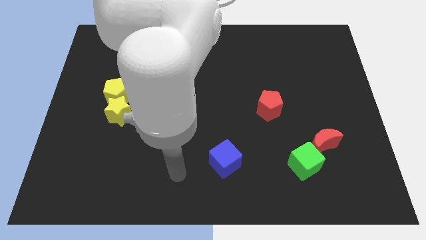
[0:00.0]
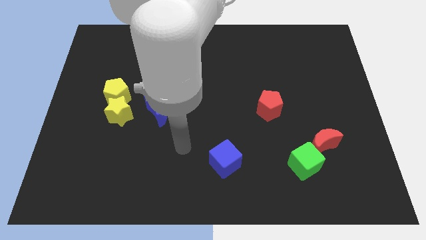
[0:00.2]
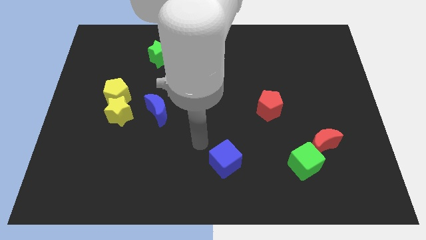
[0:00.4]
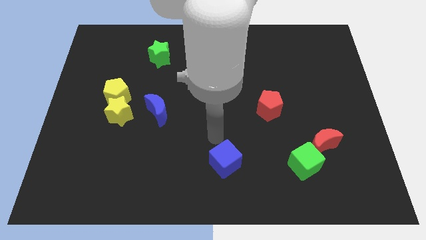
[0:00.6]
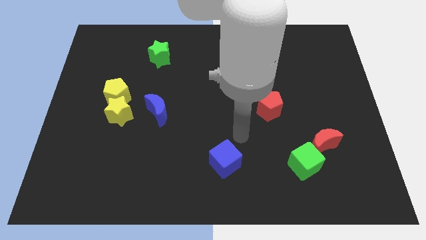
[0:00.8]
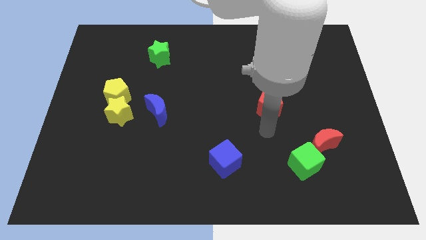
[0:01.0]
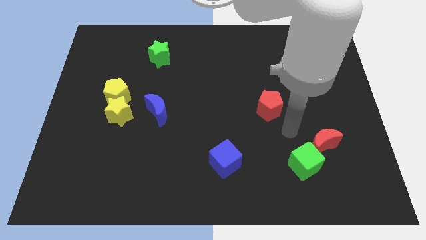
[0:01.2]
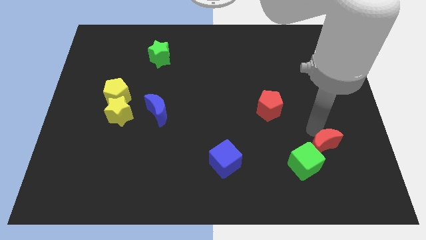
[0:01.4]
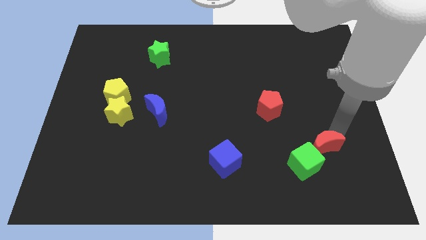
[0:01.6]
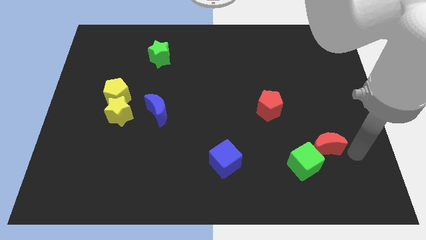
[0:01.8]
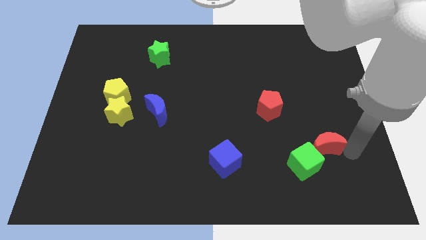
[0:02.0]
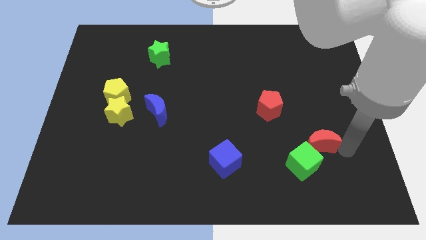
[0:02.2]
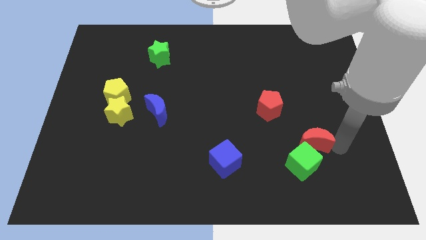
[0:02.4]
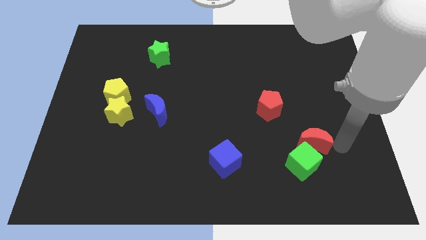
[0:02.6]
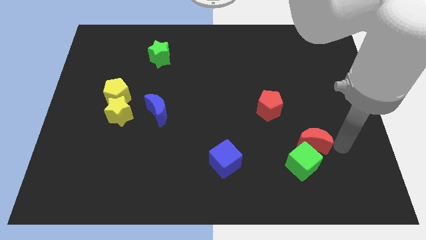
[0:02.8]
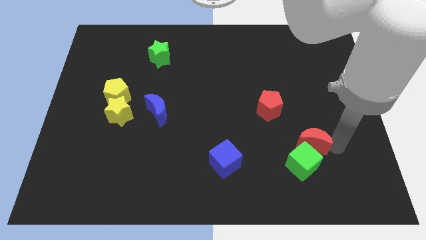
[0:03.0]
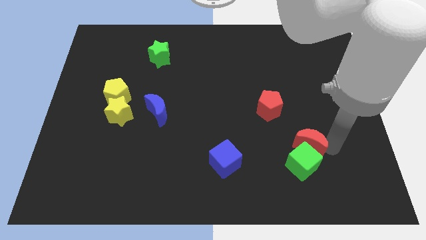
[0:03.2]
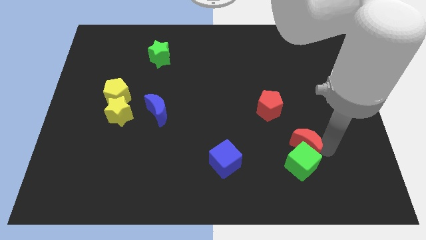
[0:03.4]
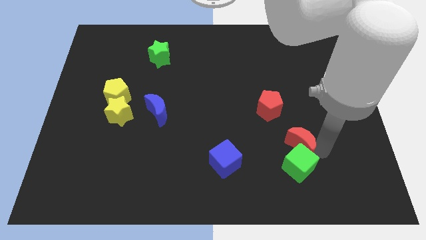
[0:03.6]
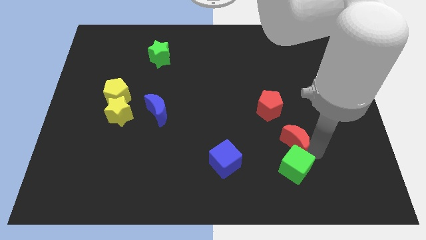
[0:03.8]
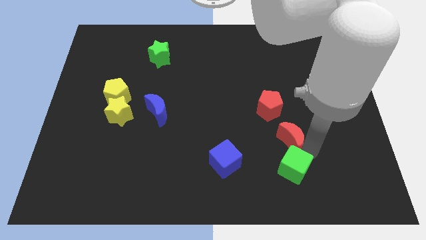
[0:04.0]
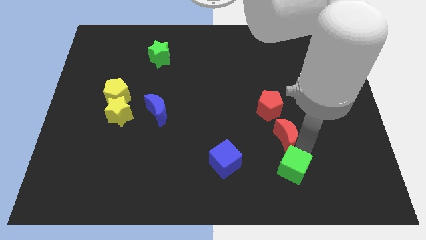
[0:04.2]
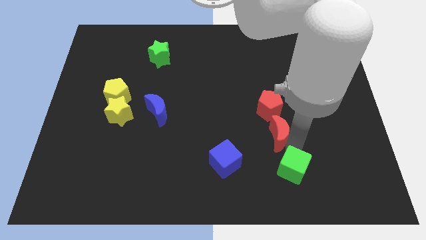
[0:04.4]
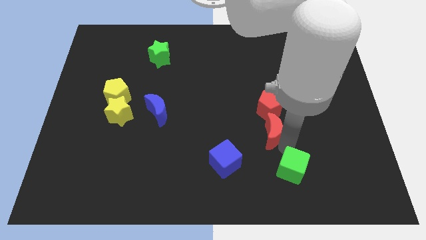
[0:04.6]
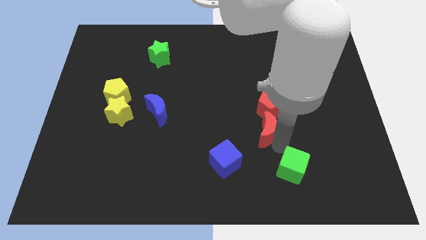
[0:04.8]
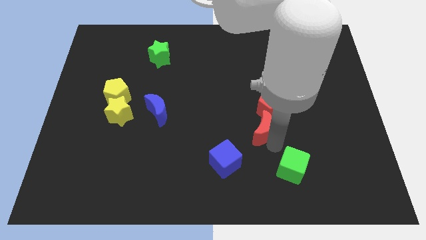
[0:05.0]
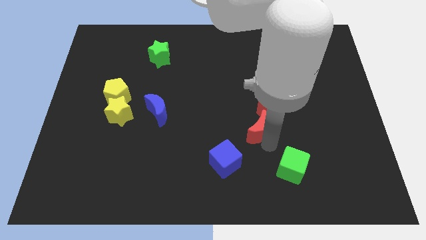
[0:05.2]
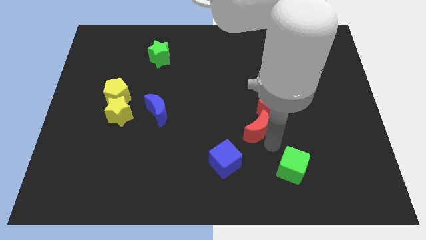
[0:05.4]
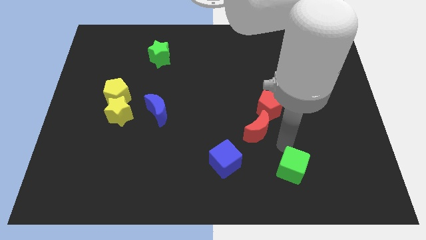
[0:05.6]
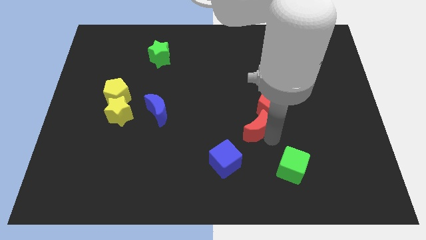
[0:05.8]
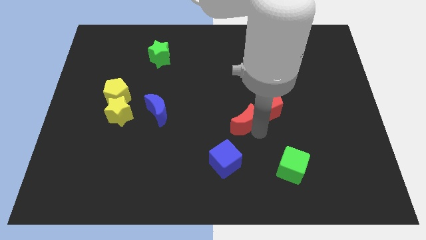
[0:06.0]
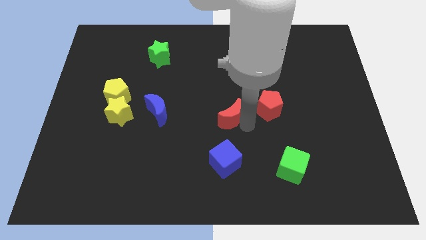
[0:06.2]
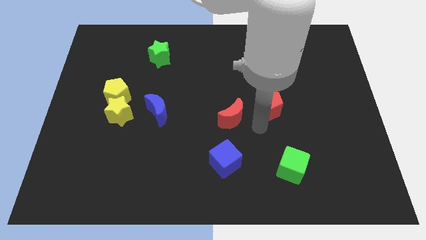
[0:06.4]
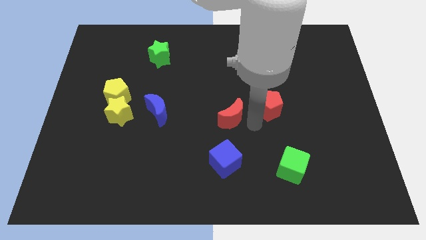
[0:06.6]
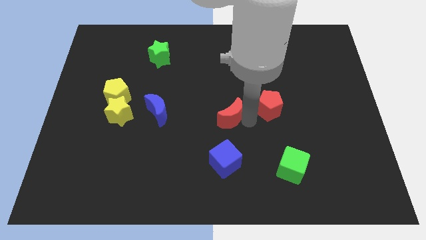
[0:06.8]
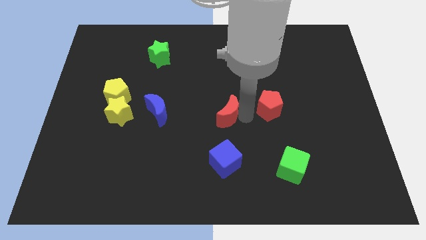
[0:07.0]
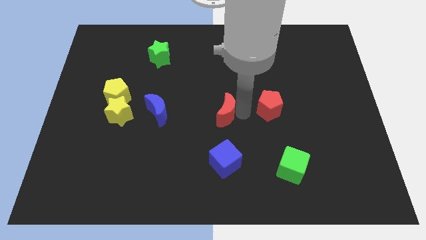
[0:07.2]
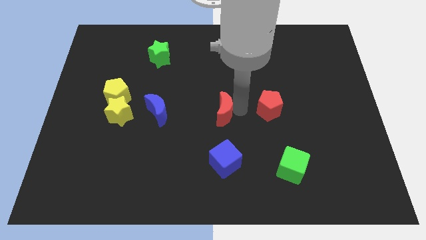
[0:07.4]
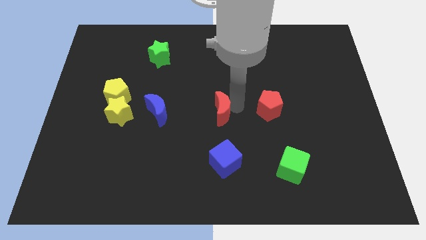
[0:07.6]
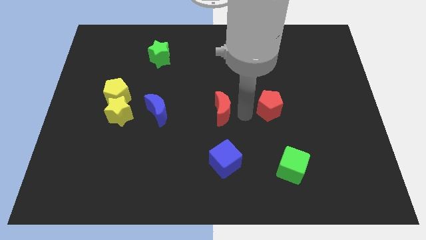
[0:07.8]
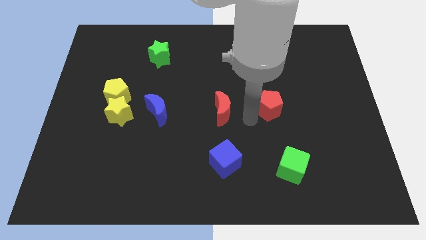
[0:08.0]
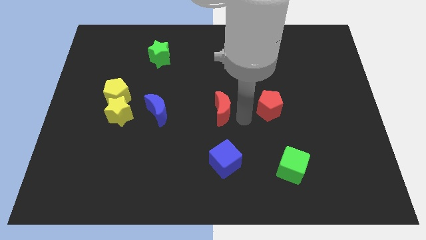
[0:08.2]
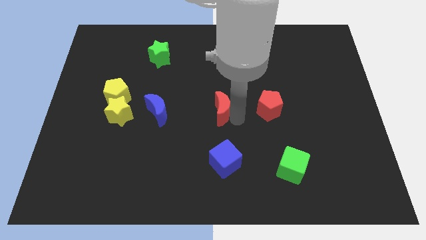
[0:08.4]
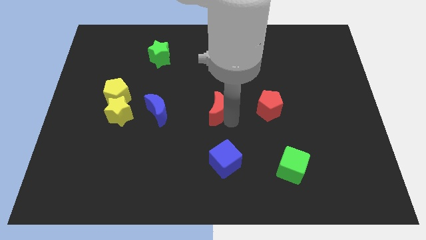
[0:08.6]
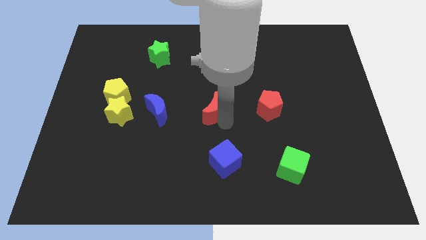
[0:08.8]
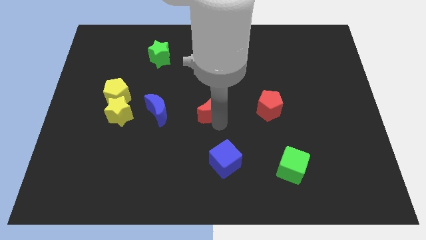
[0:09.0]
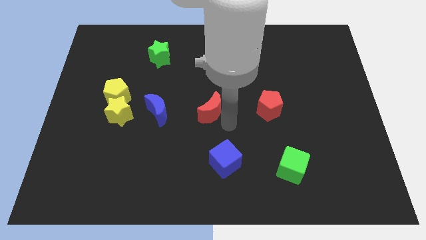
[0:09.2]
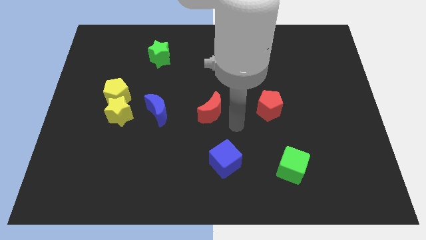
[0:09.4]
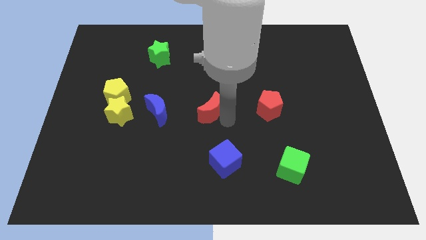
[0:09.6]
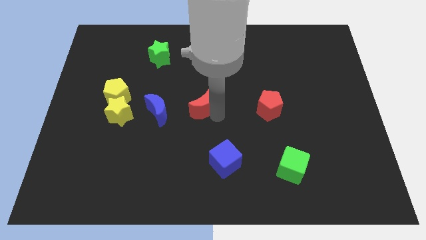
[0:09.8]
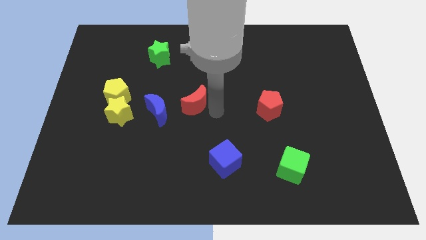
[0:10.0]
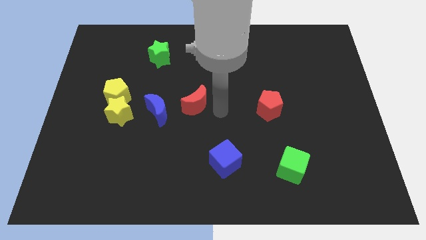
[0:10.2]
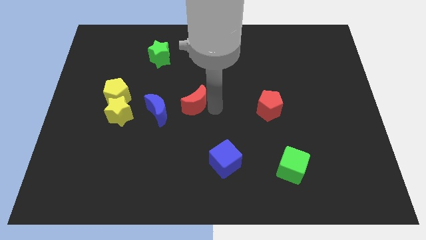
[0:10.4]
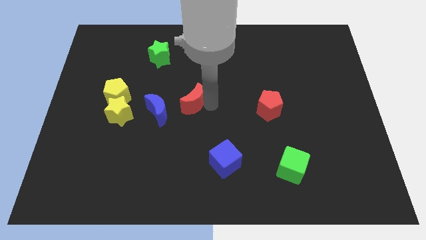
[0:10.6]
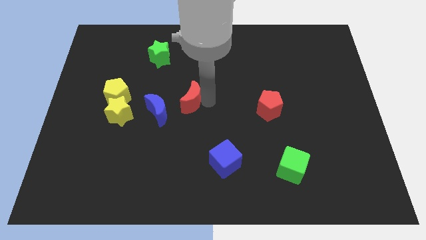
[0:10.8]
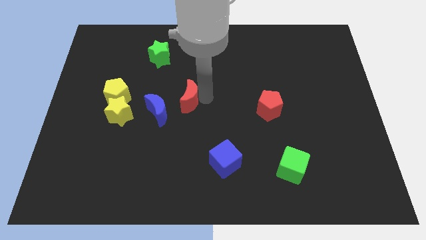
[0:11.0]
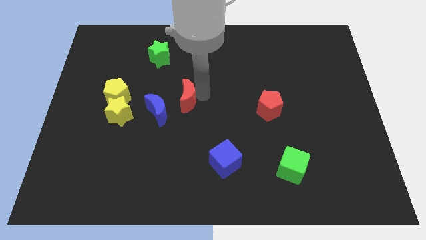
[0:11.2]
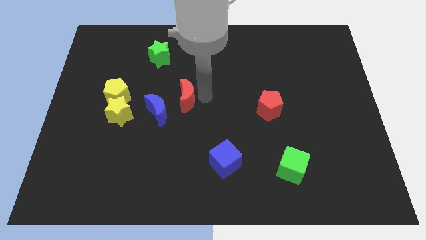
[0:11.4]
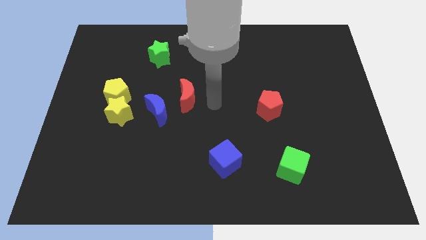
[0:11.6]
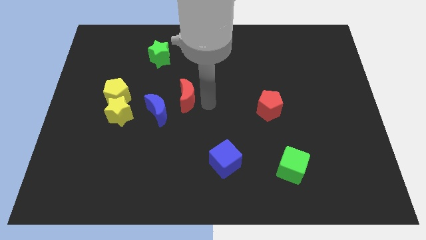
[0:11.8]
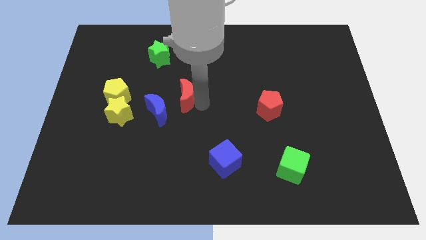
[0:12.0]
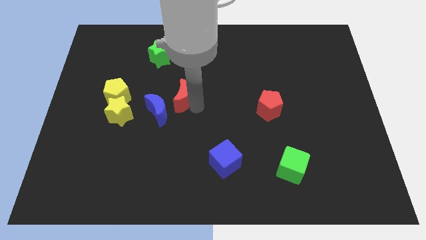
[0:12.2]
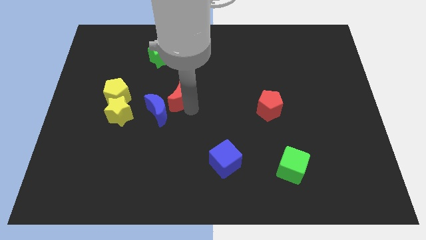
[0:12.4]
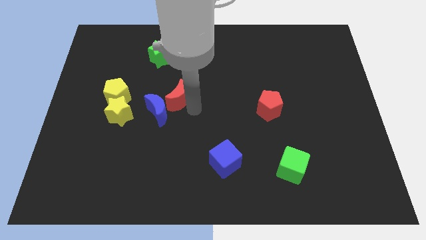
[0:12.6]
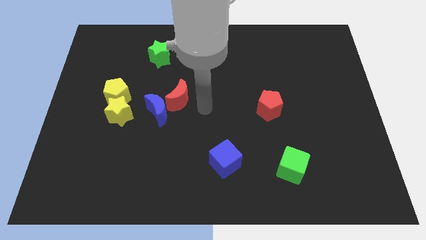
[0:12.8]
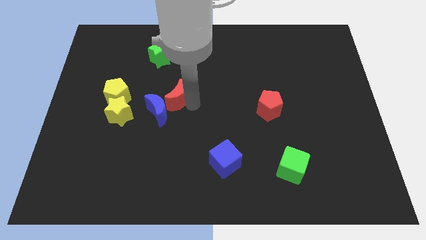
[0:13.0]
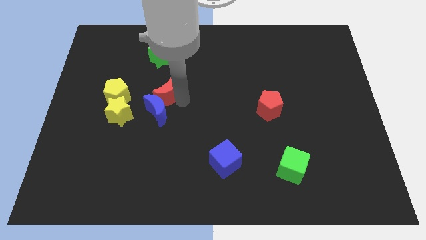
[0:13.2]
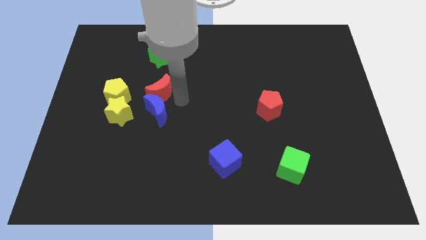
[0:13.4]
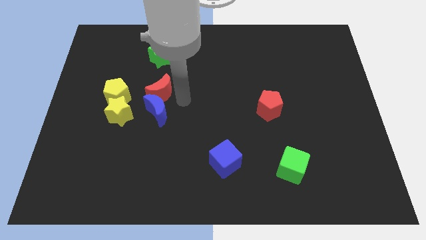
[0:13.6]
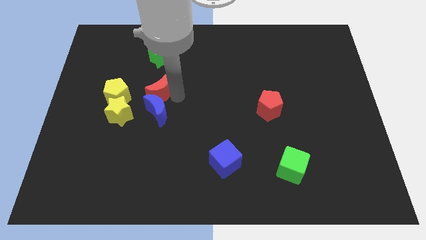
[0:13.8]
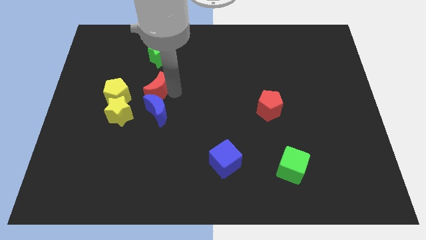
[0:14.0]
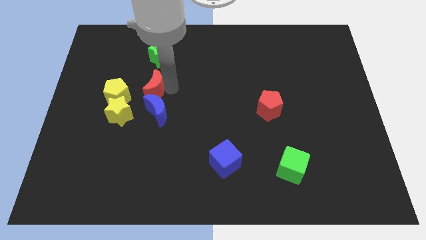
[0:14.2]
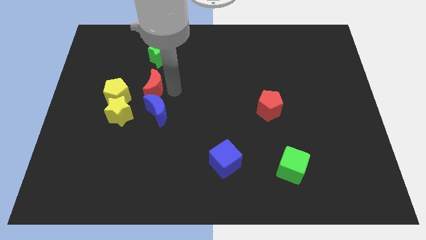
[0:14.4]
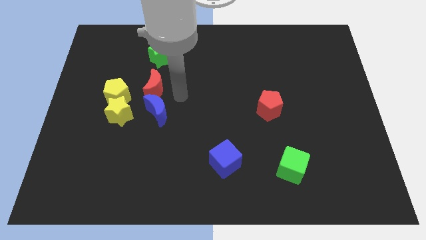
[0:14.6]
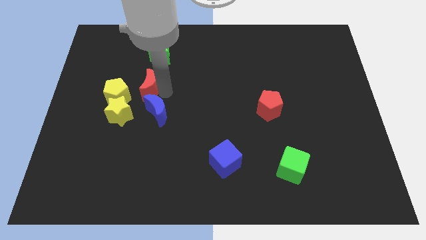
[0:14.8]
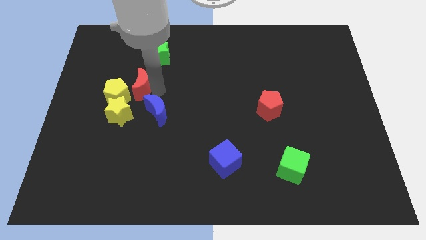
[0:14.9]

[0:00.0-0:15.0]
move the red moon above the yellow star
